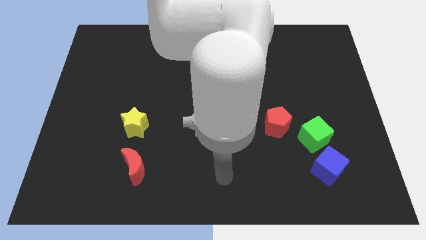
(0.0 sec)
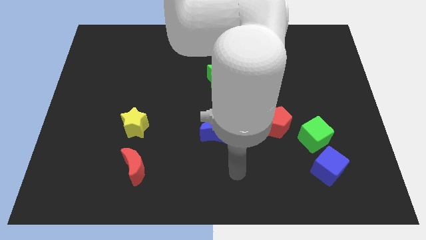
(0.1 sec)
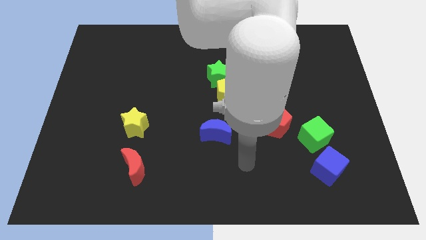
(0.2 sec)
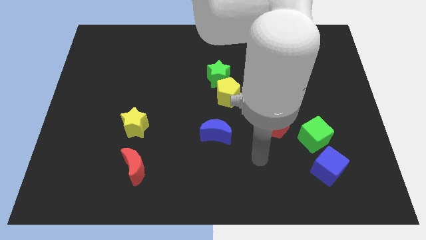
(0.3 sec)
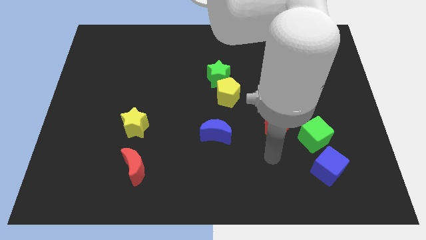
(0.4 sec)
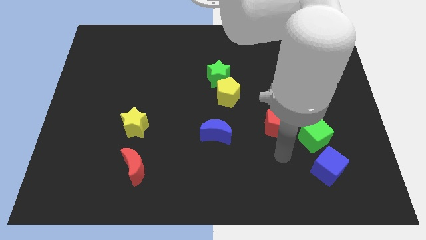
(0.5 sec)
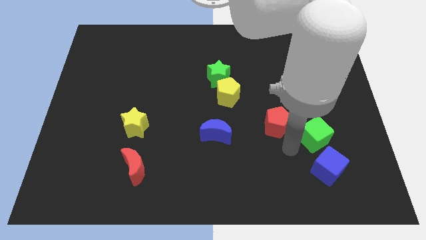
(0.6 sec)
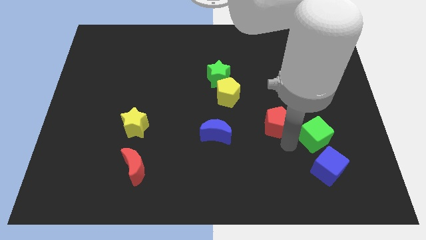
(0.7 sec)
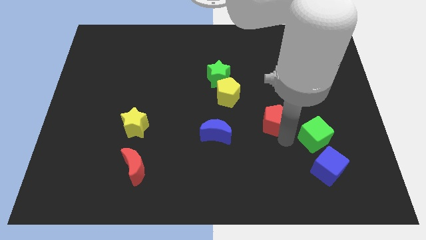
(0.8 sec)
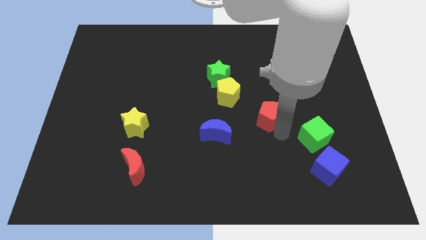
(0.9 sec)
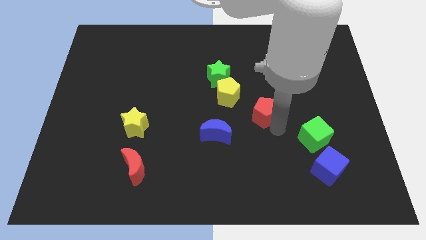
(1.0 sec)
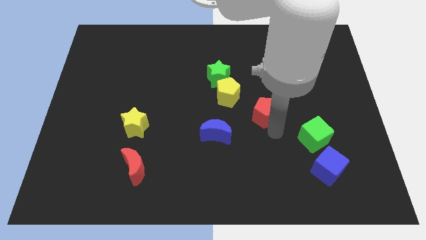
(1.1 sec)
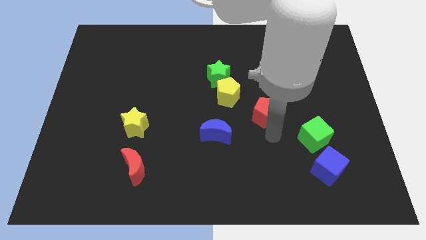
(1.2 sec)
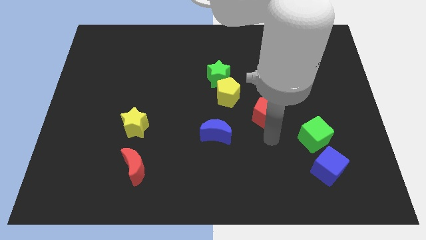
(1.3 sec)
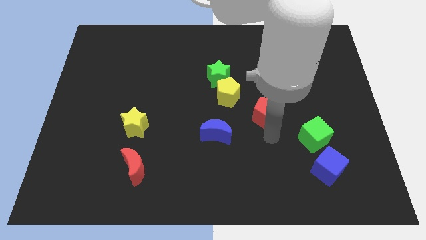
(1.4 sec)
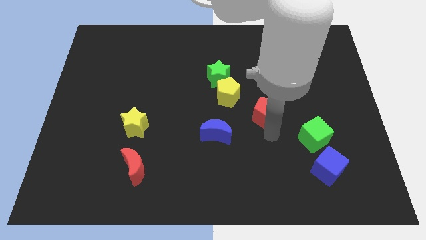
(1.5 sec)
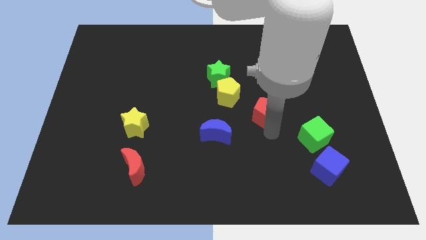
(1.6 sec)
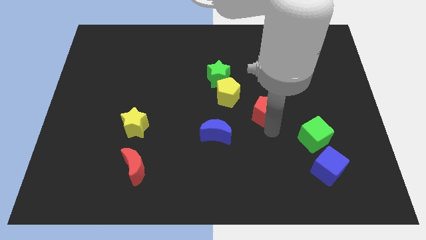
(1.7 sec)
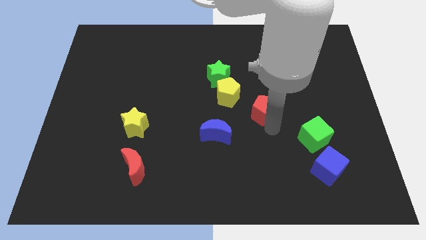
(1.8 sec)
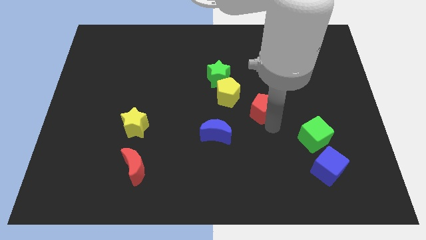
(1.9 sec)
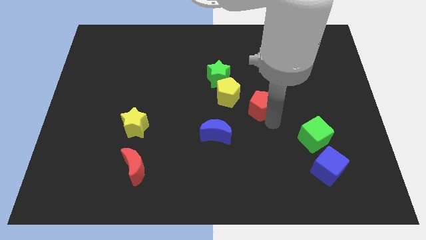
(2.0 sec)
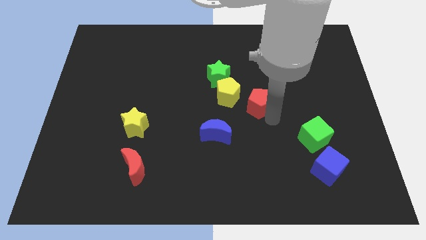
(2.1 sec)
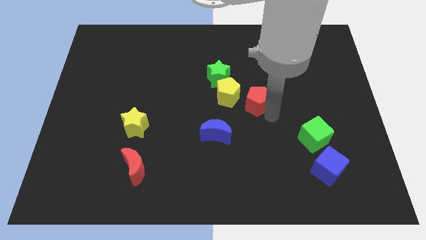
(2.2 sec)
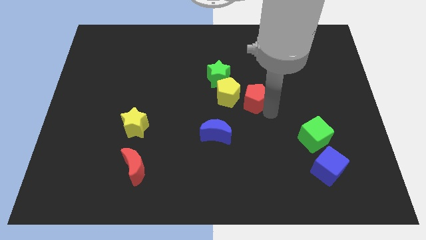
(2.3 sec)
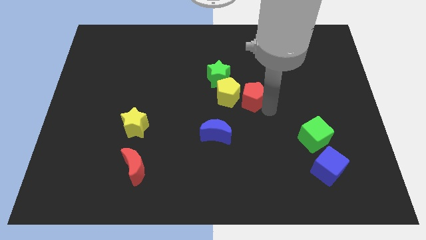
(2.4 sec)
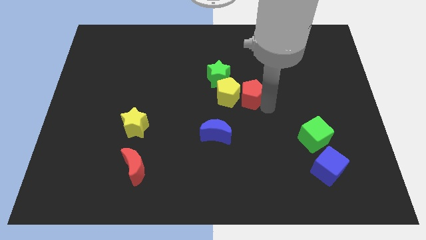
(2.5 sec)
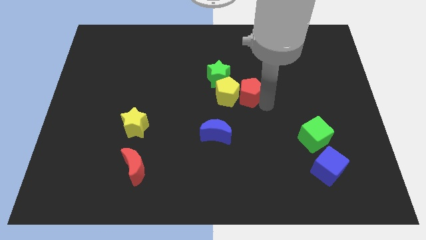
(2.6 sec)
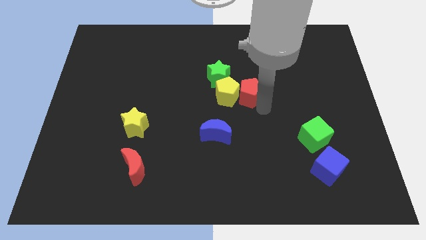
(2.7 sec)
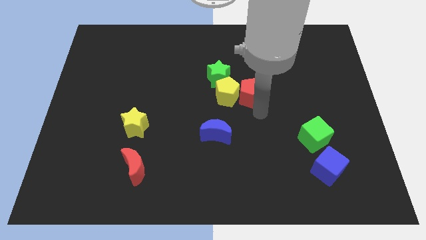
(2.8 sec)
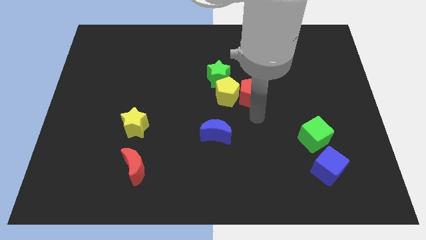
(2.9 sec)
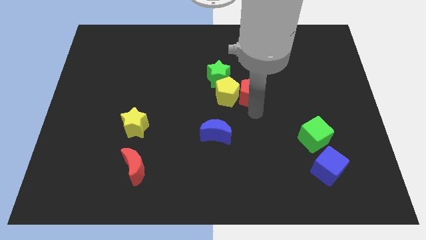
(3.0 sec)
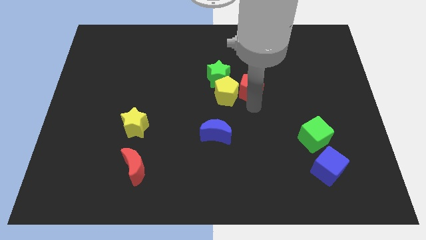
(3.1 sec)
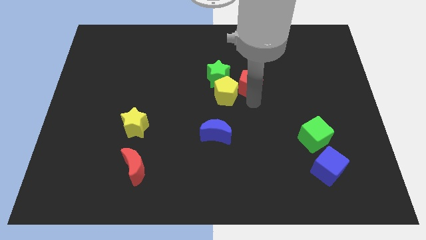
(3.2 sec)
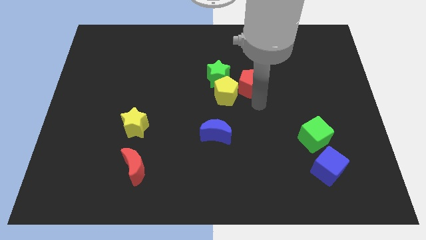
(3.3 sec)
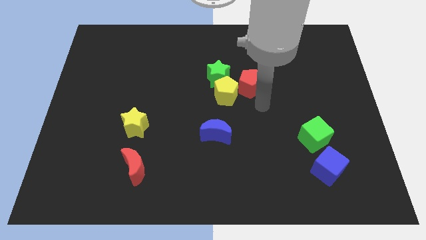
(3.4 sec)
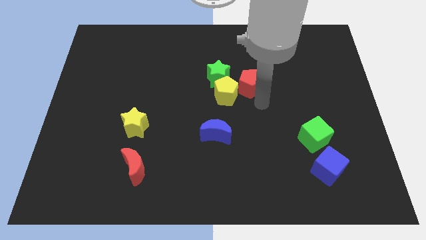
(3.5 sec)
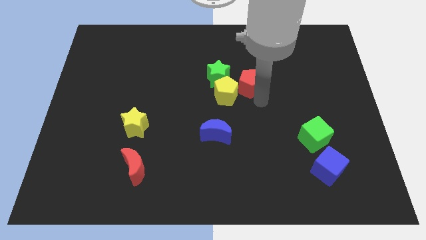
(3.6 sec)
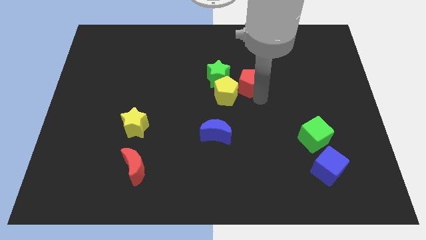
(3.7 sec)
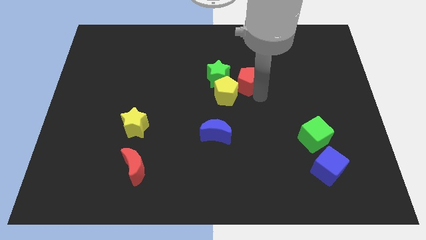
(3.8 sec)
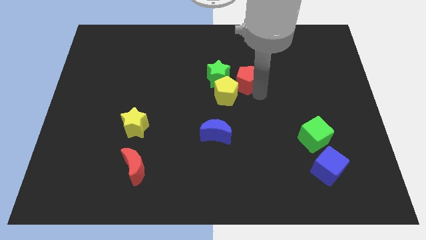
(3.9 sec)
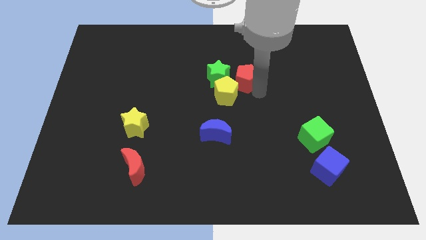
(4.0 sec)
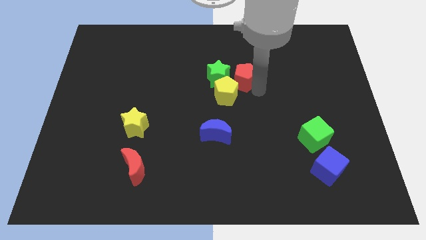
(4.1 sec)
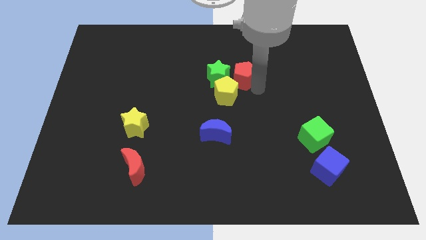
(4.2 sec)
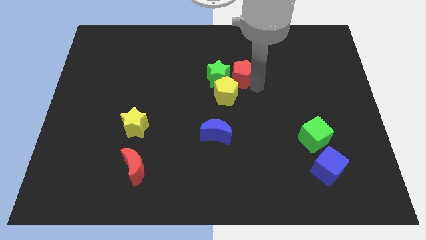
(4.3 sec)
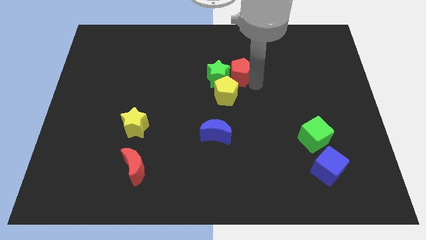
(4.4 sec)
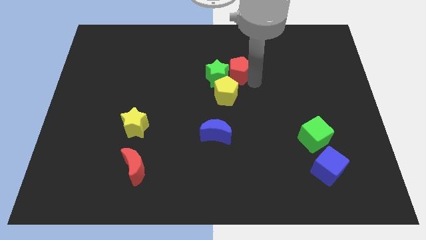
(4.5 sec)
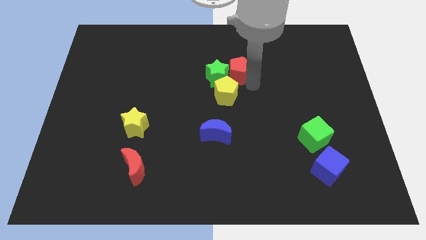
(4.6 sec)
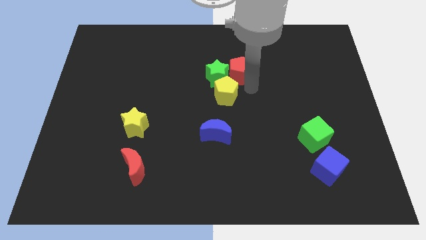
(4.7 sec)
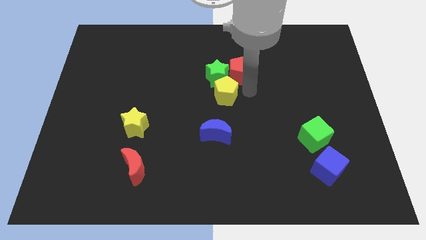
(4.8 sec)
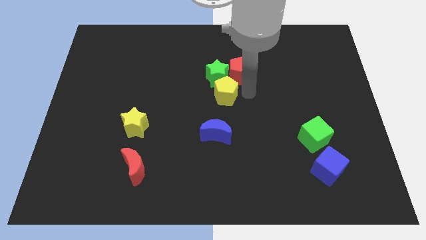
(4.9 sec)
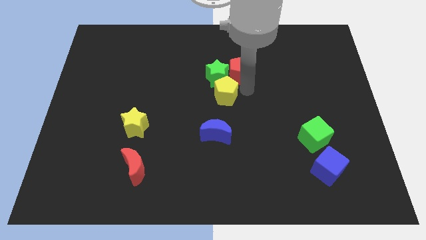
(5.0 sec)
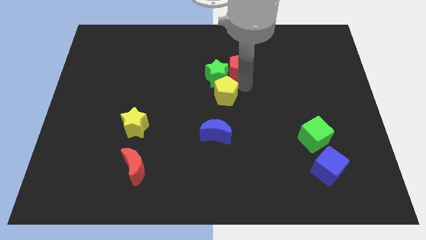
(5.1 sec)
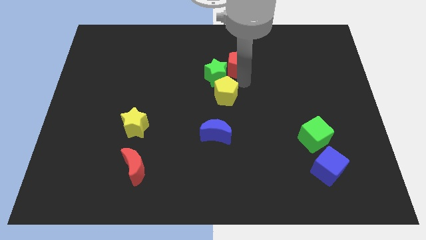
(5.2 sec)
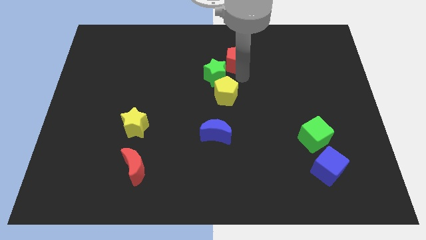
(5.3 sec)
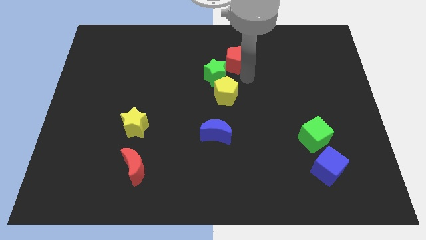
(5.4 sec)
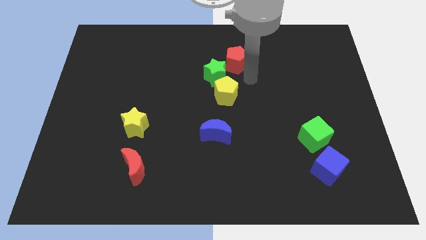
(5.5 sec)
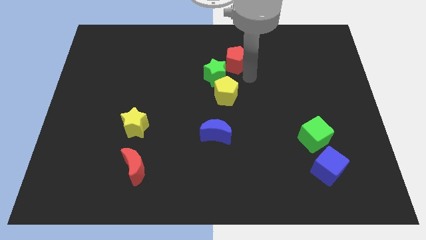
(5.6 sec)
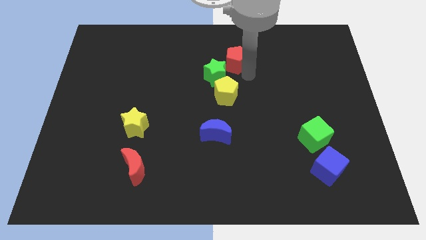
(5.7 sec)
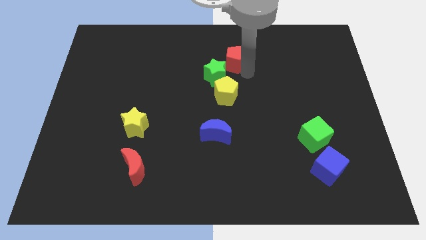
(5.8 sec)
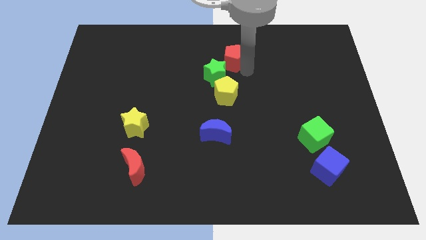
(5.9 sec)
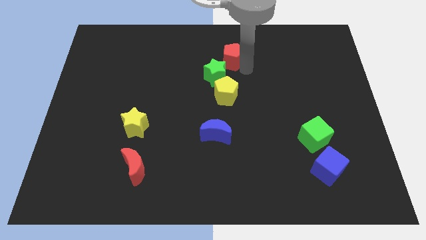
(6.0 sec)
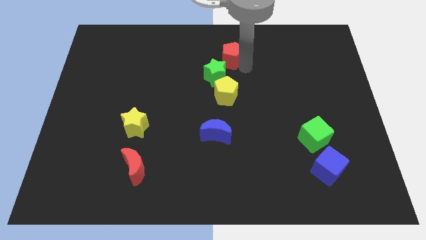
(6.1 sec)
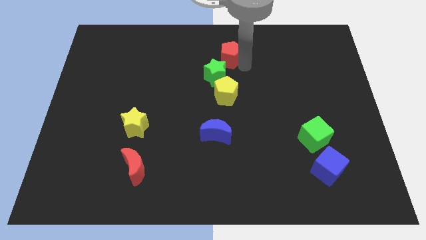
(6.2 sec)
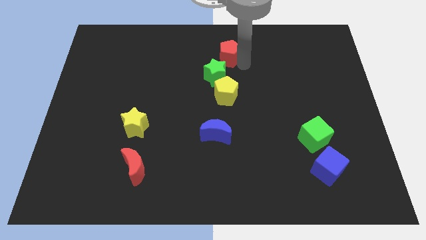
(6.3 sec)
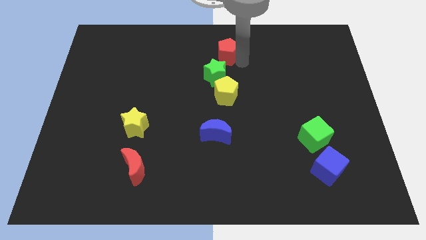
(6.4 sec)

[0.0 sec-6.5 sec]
slide the red pentagon to the towards your base

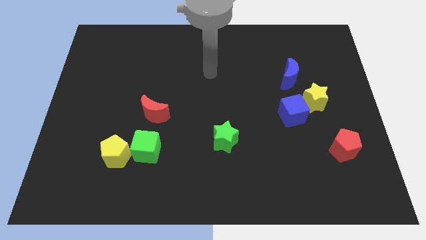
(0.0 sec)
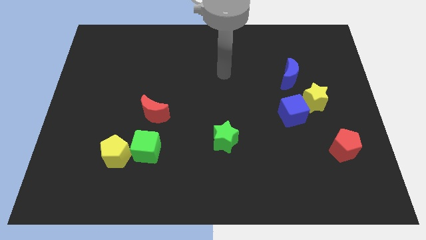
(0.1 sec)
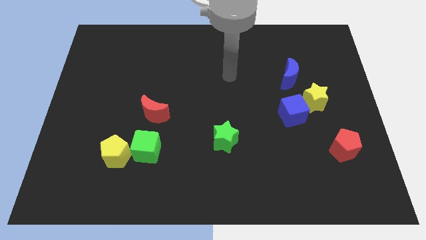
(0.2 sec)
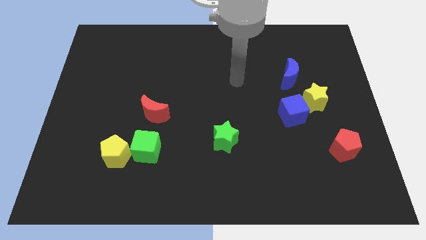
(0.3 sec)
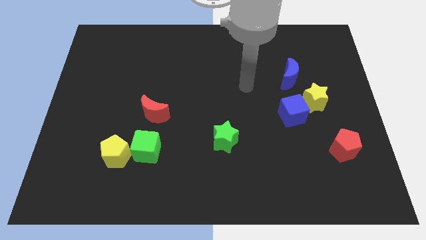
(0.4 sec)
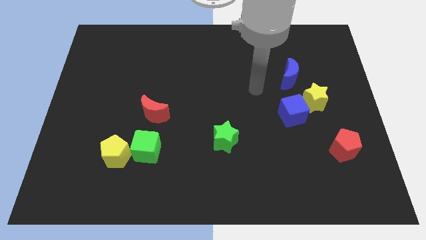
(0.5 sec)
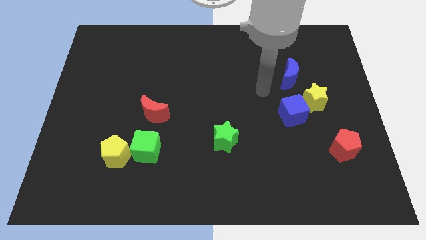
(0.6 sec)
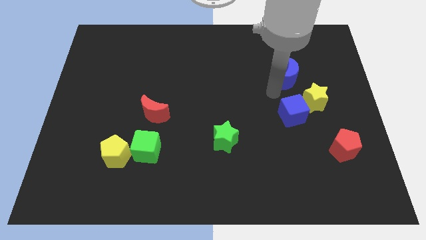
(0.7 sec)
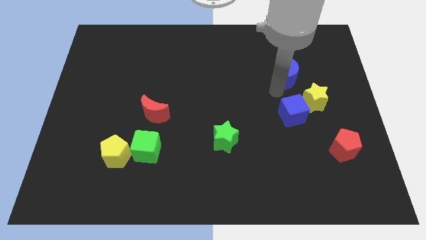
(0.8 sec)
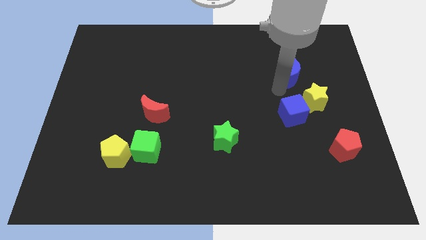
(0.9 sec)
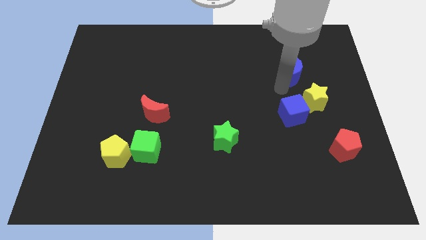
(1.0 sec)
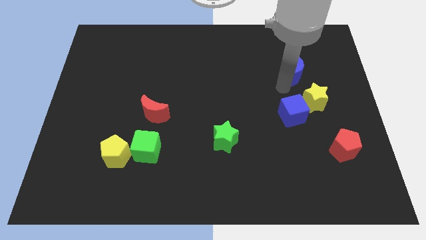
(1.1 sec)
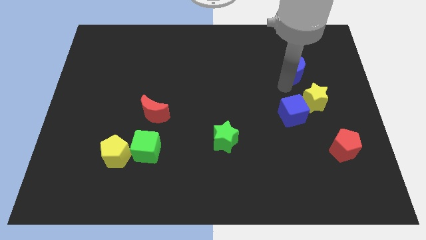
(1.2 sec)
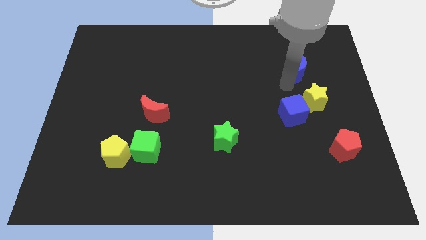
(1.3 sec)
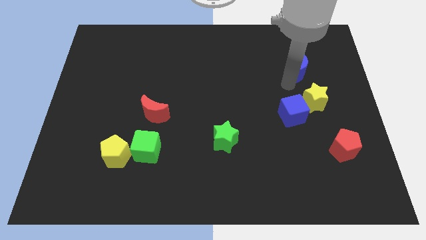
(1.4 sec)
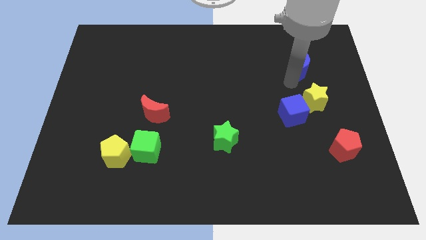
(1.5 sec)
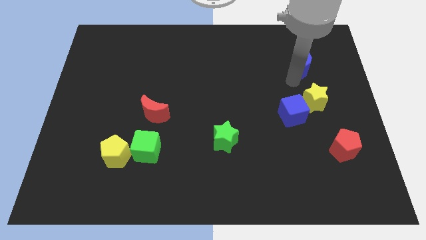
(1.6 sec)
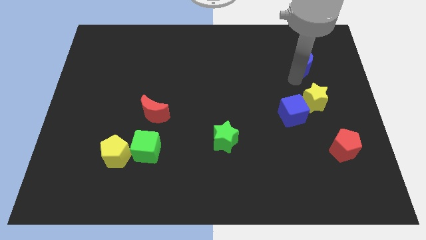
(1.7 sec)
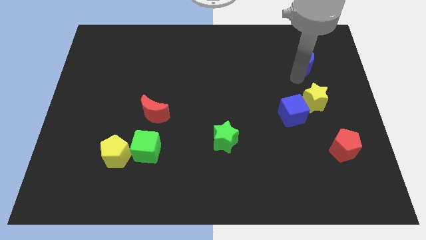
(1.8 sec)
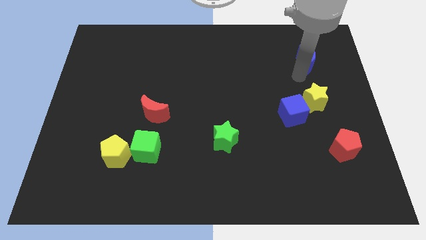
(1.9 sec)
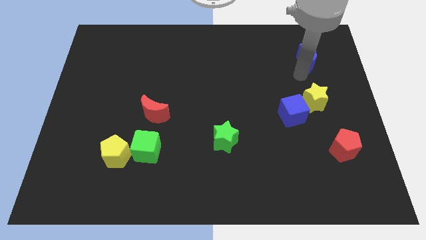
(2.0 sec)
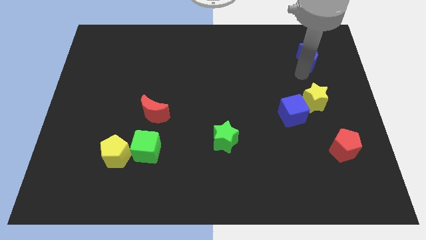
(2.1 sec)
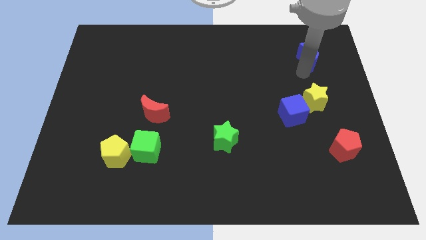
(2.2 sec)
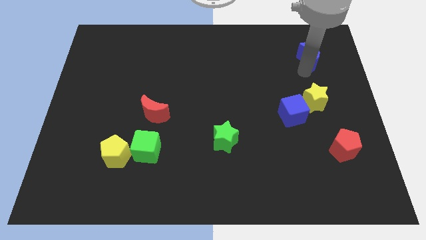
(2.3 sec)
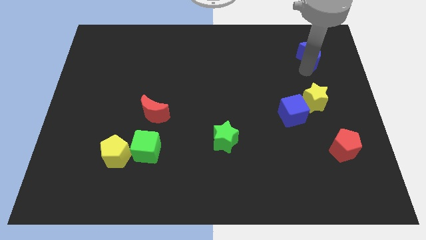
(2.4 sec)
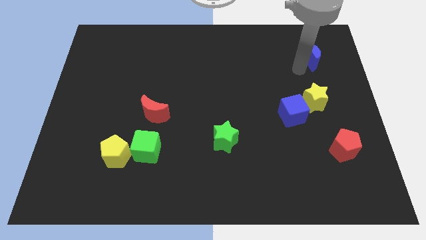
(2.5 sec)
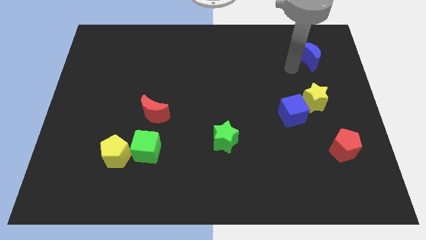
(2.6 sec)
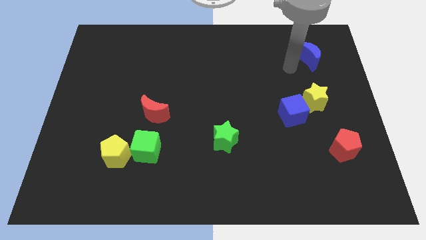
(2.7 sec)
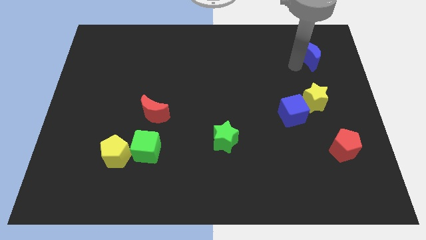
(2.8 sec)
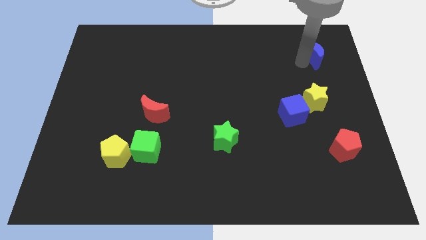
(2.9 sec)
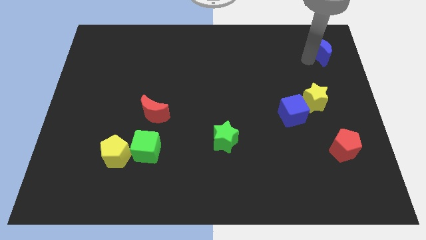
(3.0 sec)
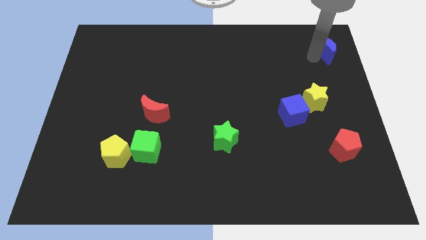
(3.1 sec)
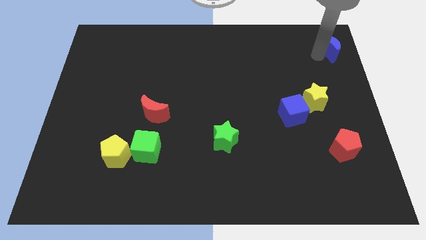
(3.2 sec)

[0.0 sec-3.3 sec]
slide the blue moon to the top right of the board
